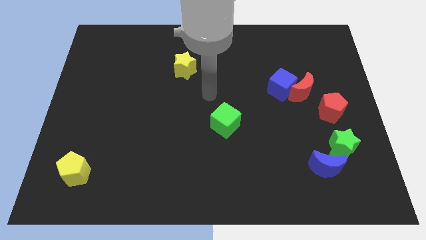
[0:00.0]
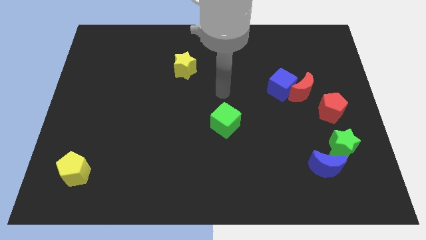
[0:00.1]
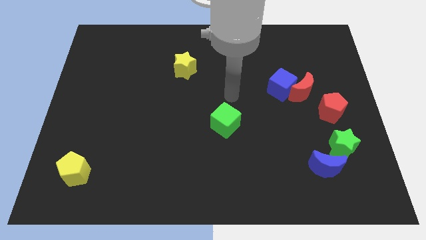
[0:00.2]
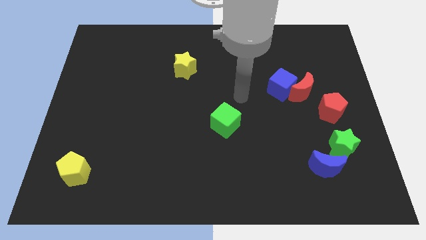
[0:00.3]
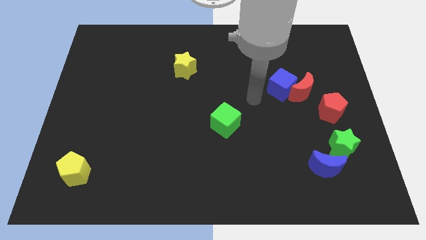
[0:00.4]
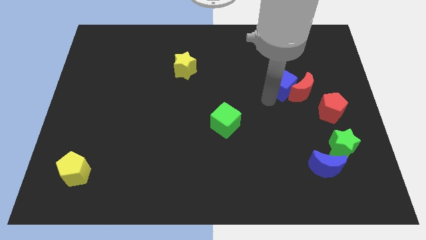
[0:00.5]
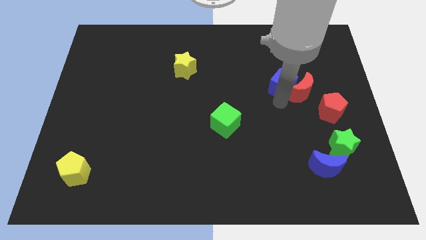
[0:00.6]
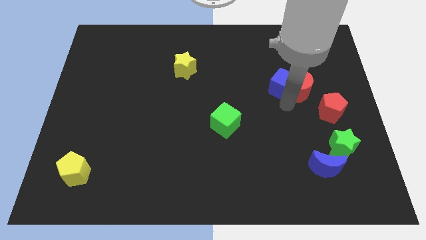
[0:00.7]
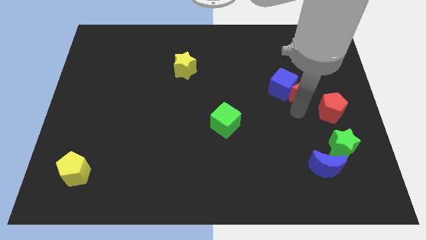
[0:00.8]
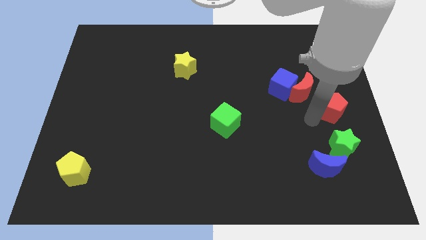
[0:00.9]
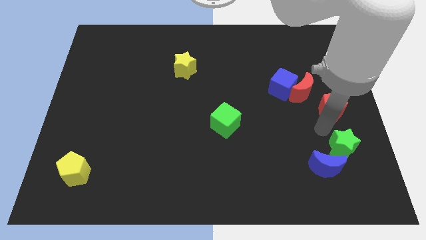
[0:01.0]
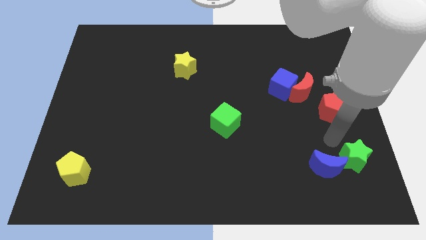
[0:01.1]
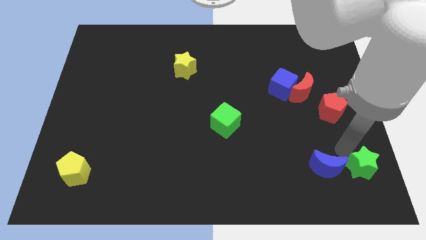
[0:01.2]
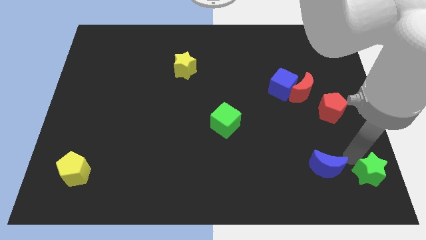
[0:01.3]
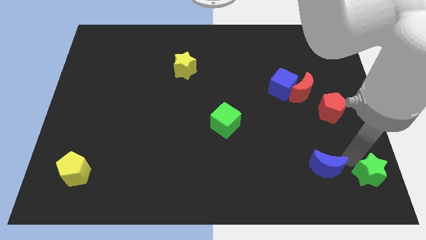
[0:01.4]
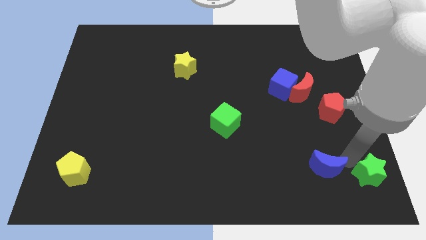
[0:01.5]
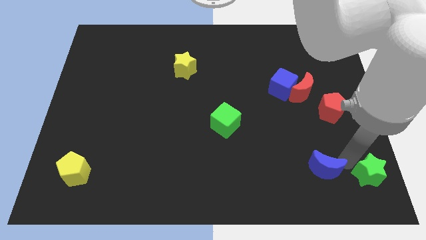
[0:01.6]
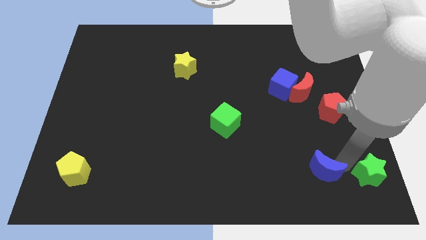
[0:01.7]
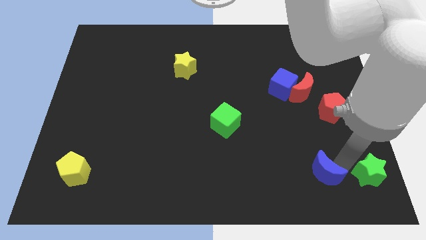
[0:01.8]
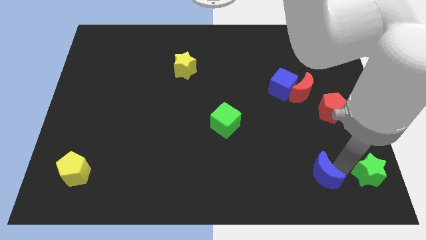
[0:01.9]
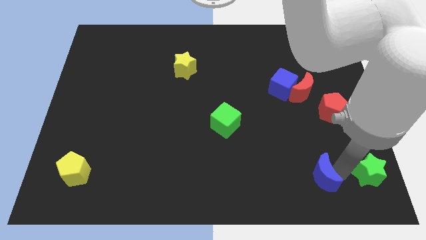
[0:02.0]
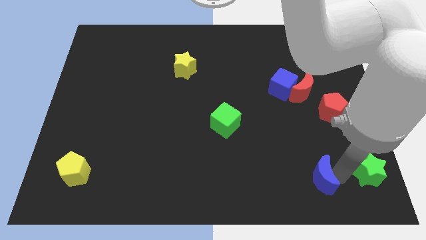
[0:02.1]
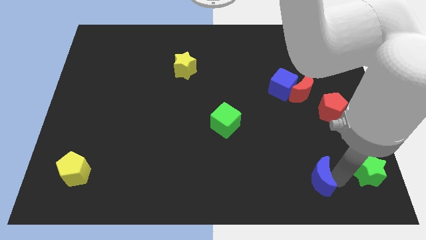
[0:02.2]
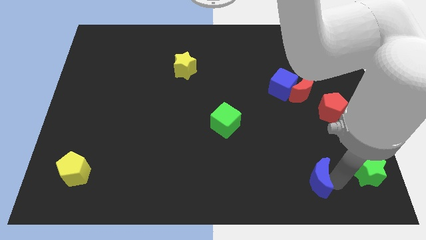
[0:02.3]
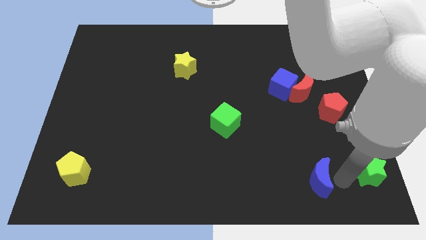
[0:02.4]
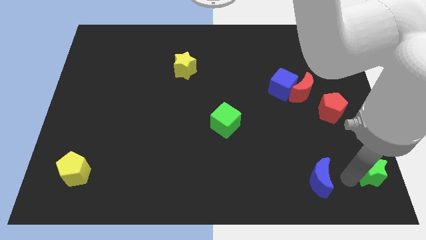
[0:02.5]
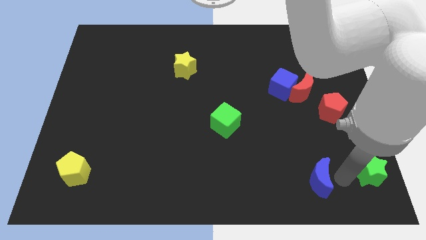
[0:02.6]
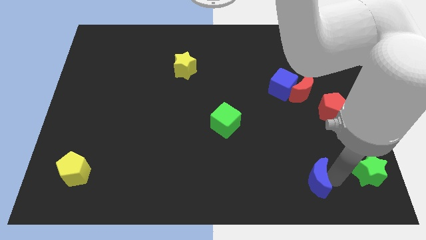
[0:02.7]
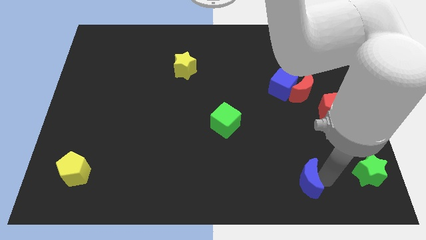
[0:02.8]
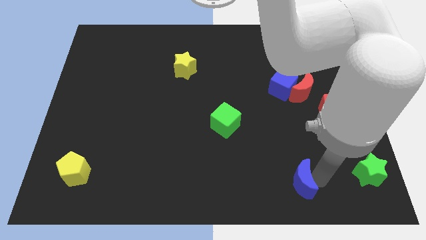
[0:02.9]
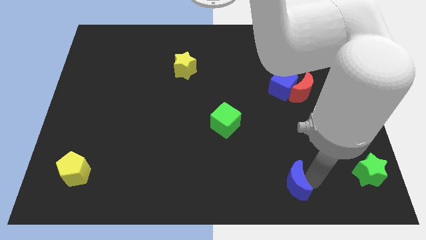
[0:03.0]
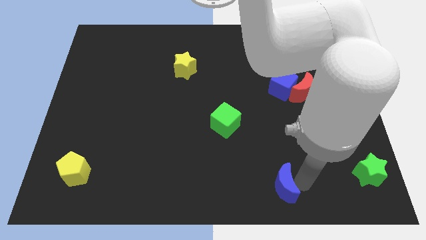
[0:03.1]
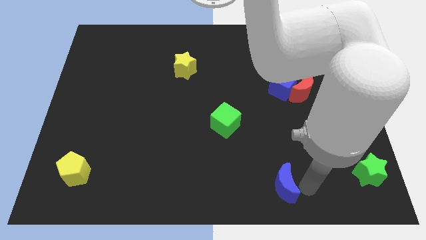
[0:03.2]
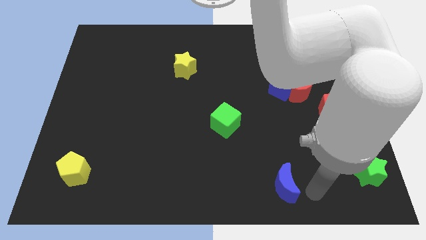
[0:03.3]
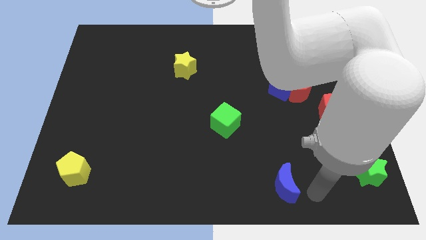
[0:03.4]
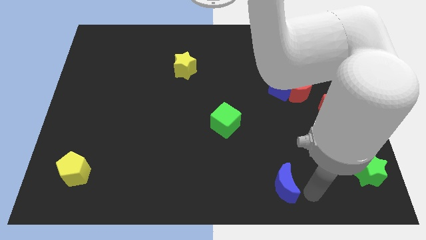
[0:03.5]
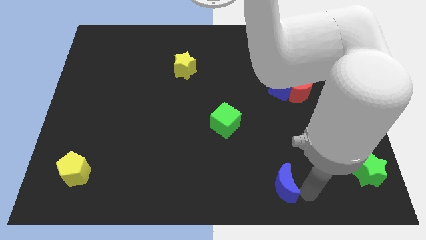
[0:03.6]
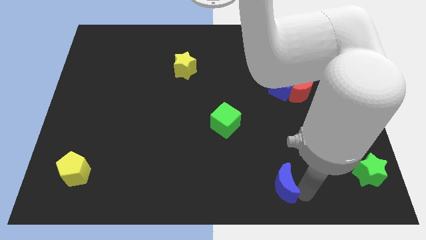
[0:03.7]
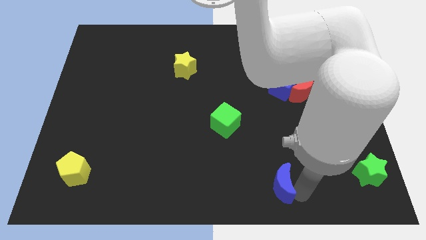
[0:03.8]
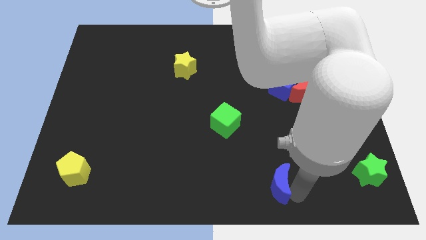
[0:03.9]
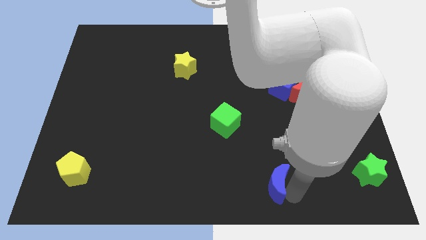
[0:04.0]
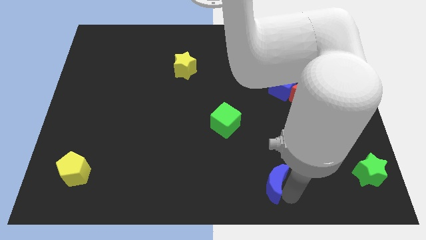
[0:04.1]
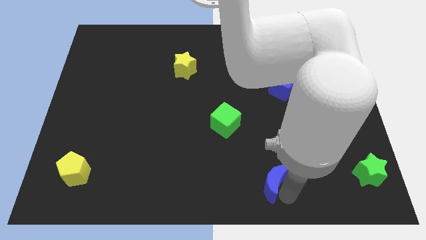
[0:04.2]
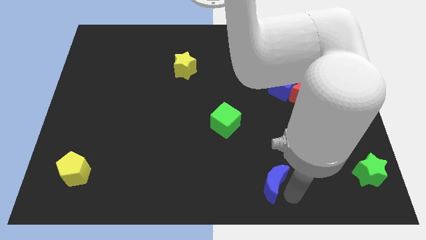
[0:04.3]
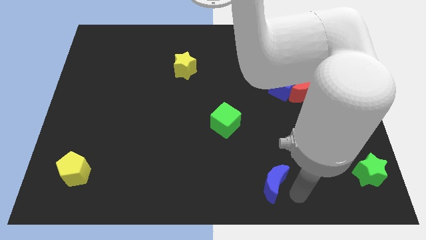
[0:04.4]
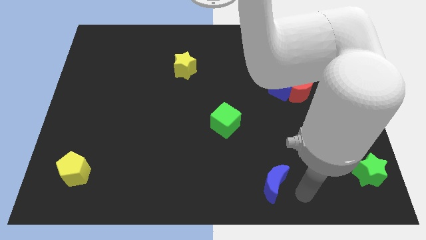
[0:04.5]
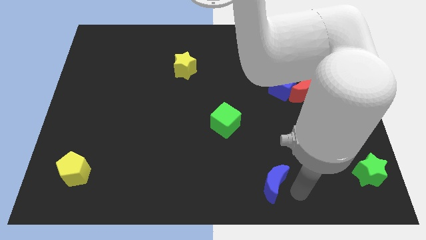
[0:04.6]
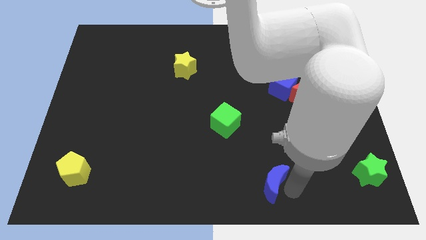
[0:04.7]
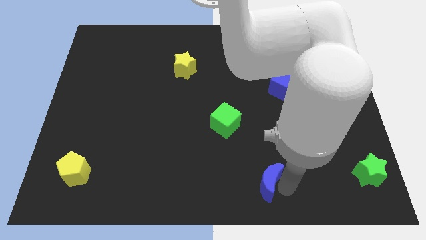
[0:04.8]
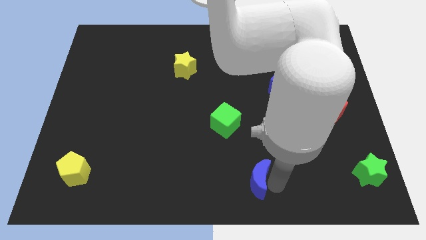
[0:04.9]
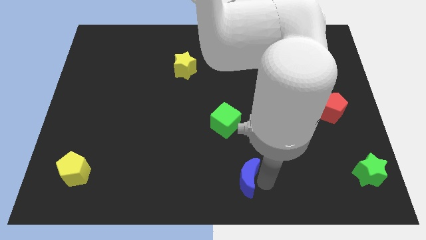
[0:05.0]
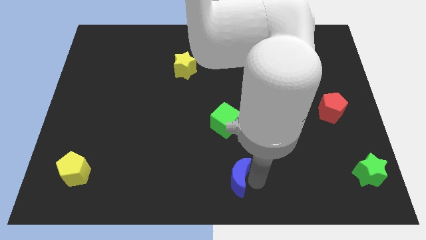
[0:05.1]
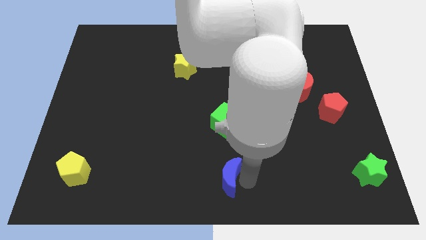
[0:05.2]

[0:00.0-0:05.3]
slide the blue moon left

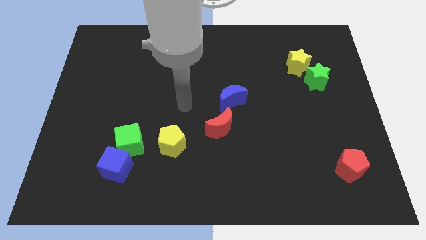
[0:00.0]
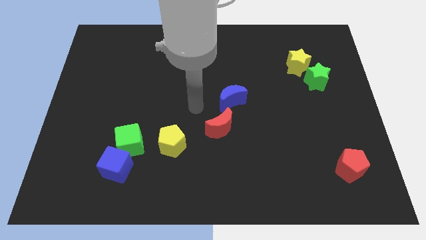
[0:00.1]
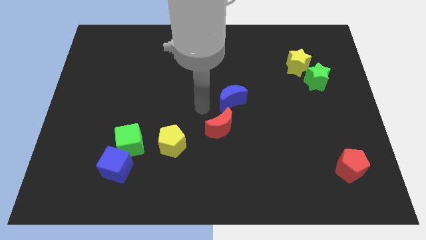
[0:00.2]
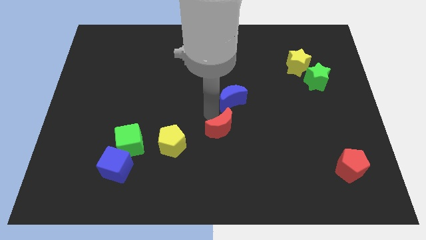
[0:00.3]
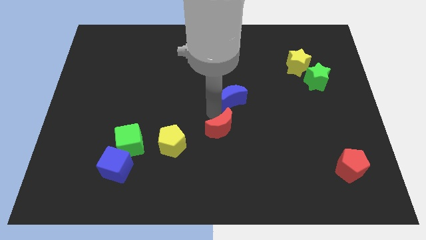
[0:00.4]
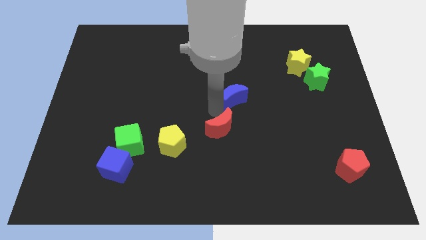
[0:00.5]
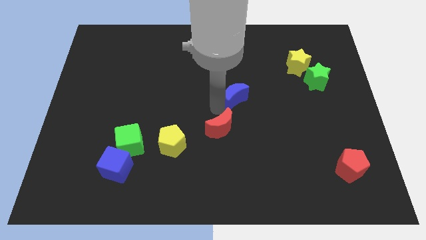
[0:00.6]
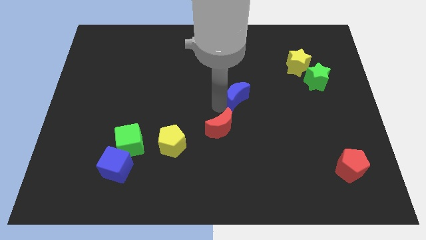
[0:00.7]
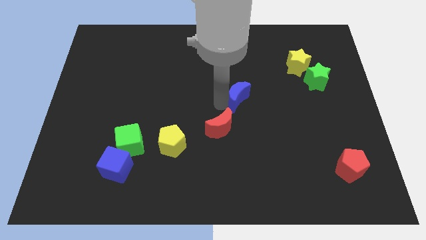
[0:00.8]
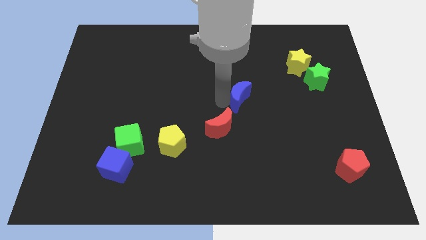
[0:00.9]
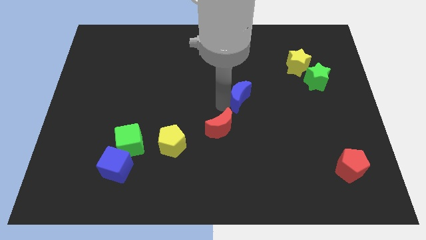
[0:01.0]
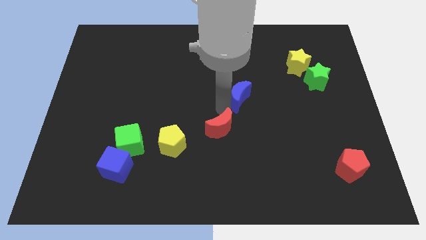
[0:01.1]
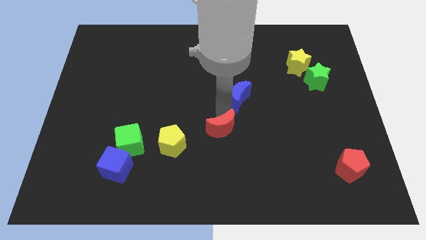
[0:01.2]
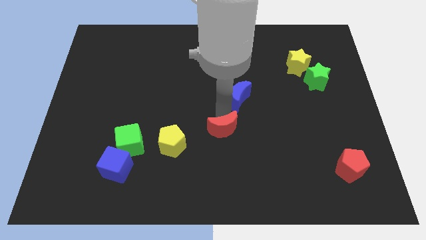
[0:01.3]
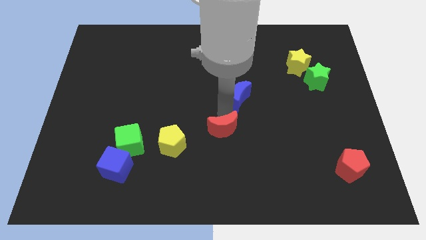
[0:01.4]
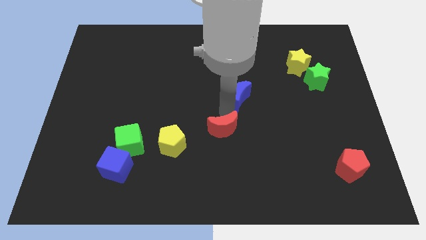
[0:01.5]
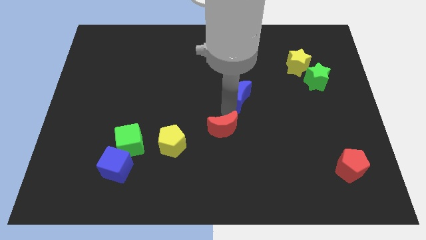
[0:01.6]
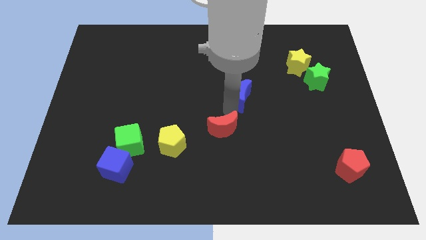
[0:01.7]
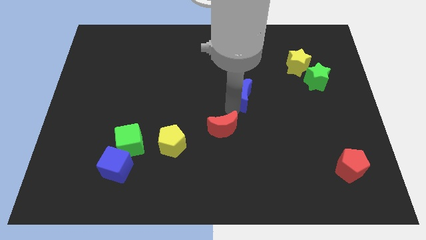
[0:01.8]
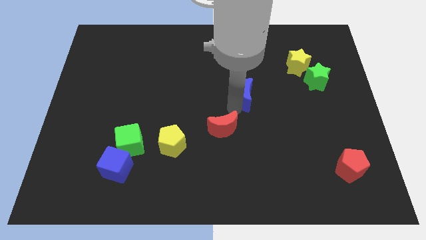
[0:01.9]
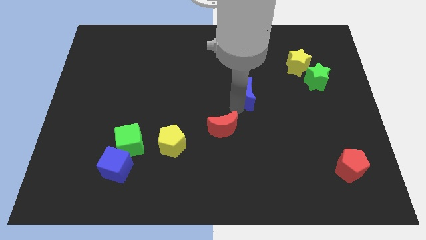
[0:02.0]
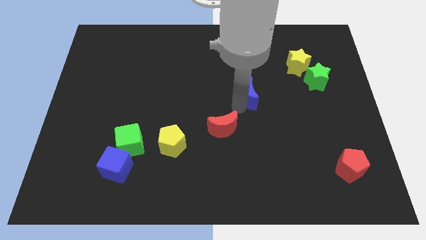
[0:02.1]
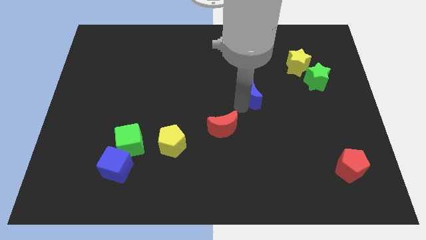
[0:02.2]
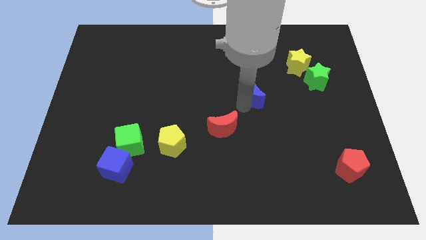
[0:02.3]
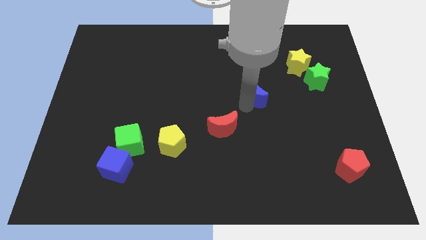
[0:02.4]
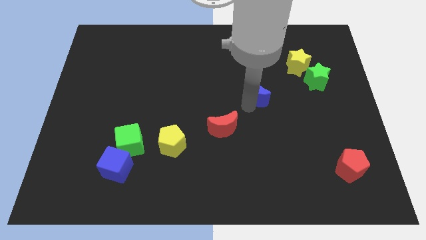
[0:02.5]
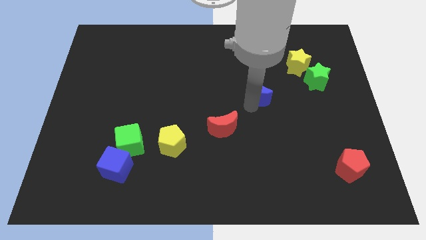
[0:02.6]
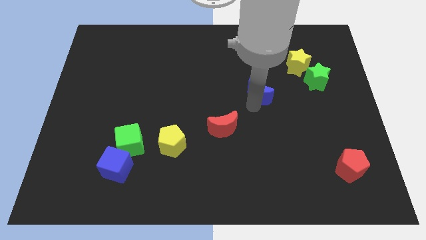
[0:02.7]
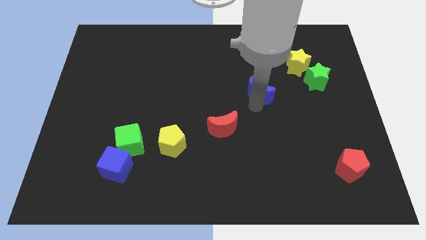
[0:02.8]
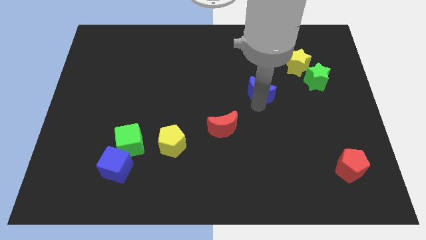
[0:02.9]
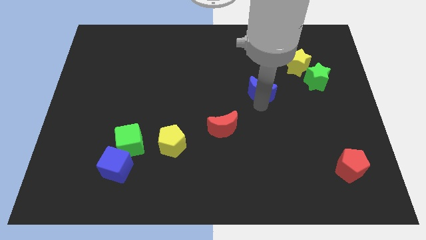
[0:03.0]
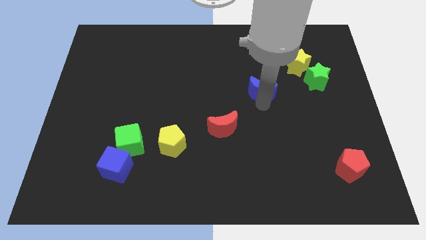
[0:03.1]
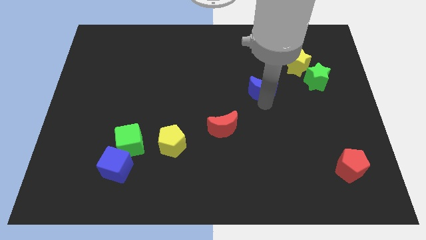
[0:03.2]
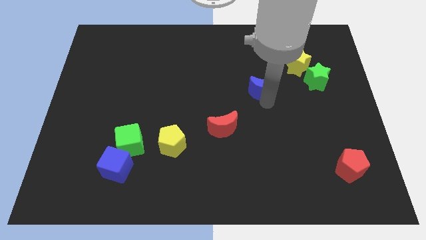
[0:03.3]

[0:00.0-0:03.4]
move the blue moon a little bit upwards and then right
